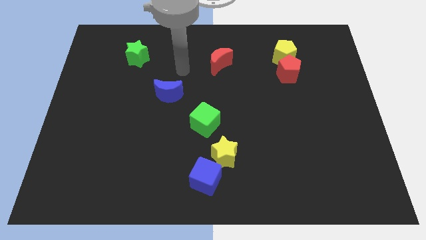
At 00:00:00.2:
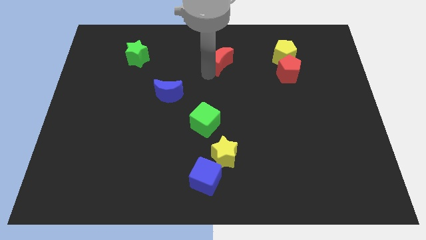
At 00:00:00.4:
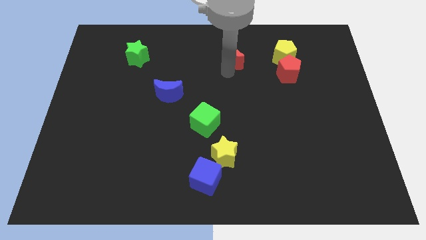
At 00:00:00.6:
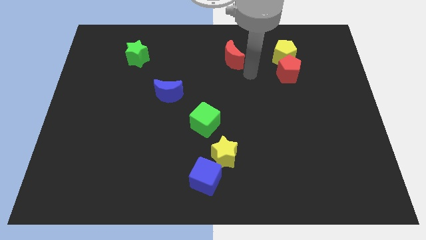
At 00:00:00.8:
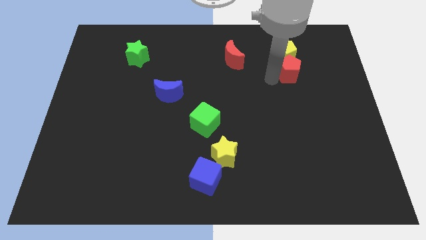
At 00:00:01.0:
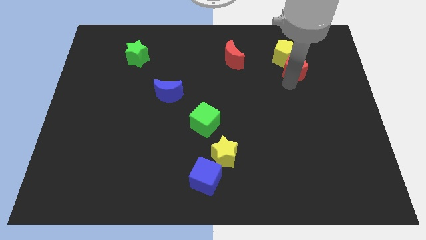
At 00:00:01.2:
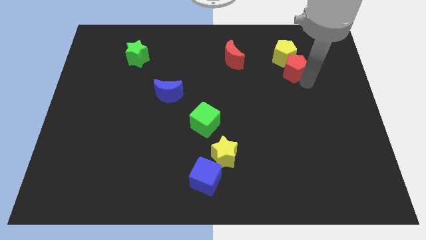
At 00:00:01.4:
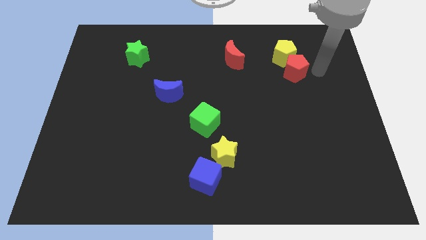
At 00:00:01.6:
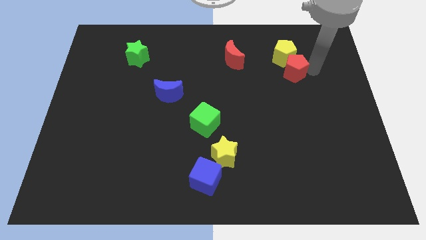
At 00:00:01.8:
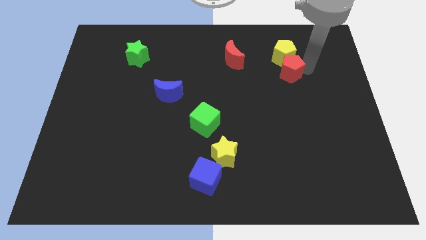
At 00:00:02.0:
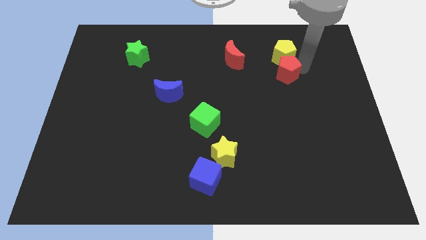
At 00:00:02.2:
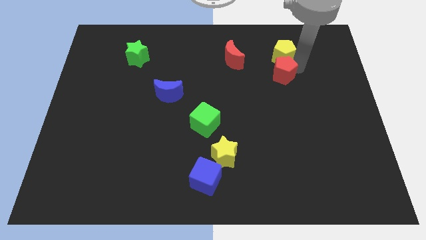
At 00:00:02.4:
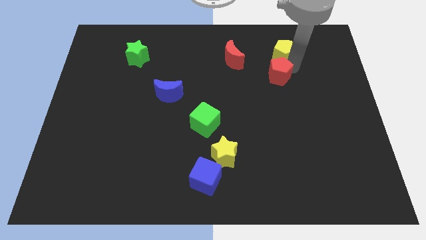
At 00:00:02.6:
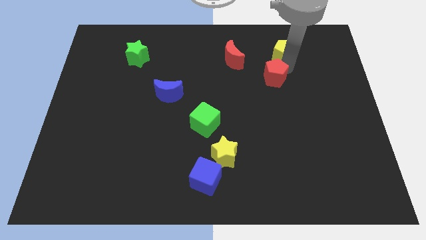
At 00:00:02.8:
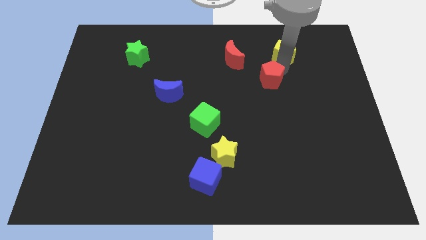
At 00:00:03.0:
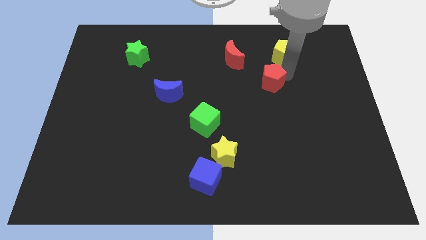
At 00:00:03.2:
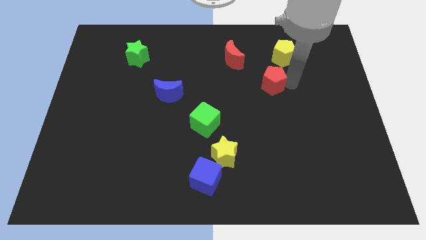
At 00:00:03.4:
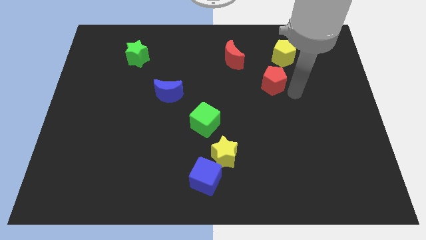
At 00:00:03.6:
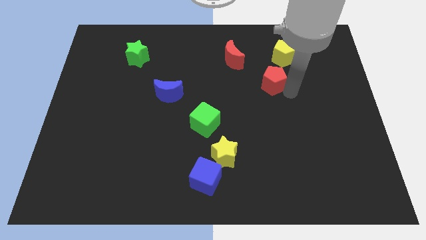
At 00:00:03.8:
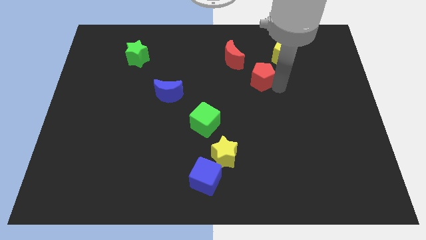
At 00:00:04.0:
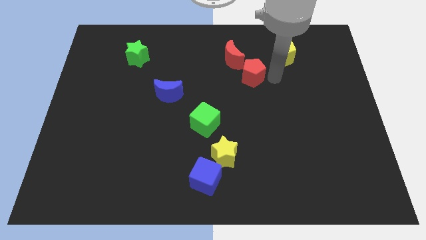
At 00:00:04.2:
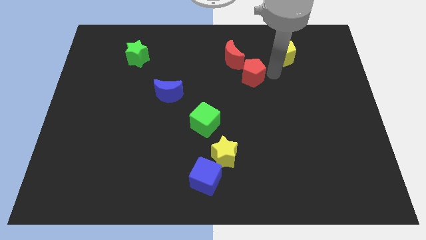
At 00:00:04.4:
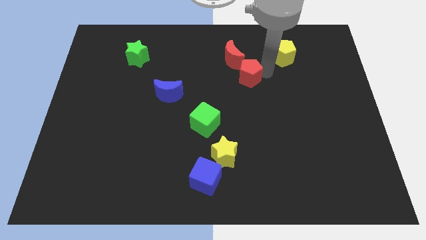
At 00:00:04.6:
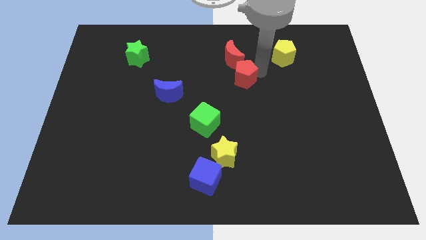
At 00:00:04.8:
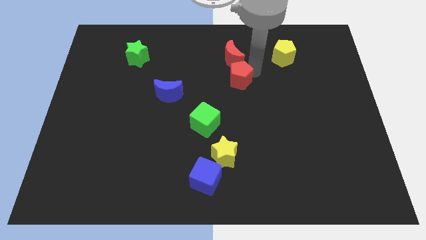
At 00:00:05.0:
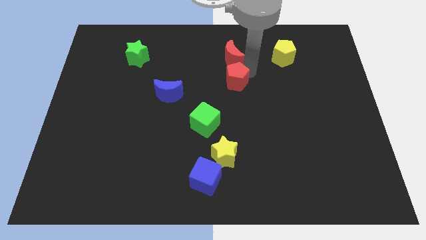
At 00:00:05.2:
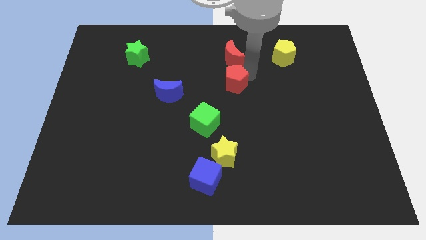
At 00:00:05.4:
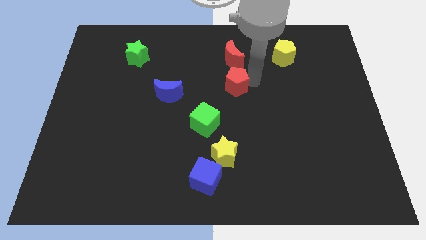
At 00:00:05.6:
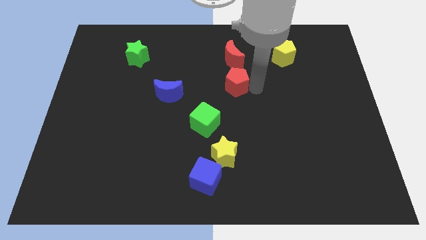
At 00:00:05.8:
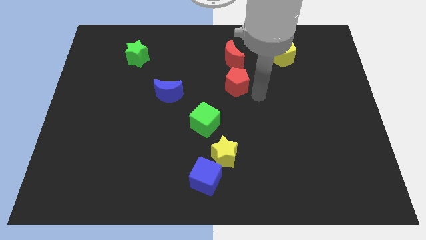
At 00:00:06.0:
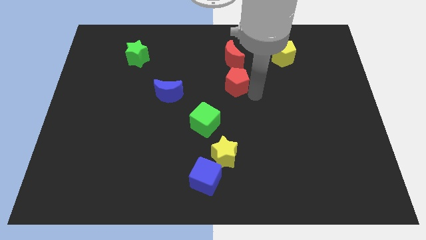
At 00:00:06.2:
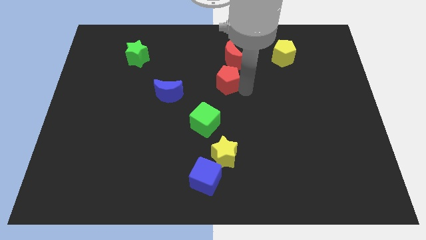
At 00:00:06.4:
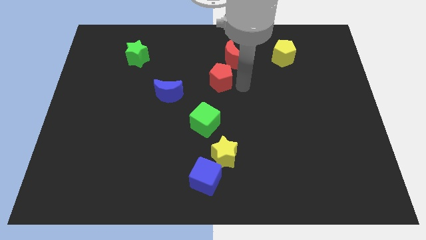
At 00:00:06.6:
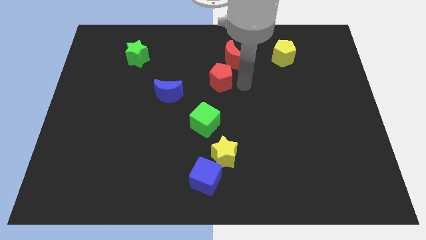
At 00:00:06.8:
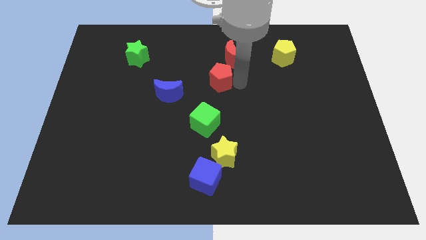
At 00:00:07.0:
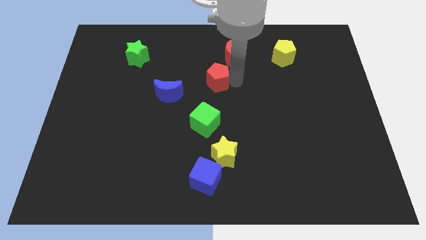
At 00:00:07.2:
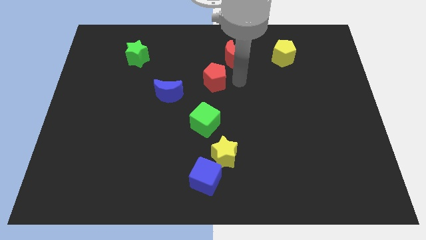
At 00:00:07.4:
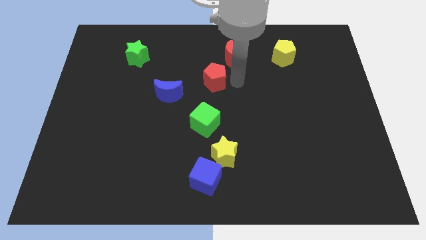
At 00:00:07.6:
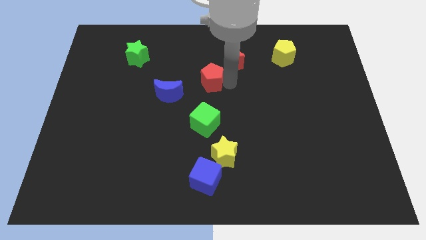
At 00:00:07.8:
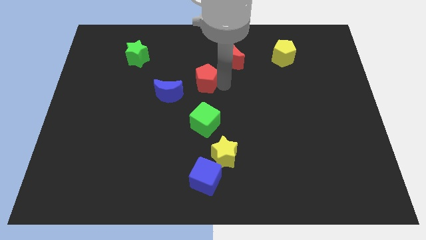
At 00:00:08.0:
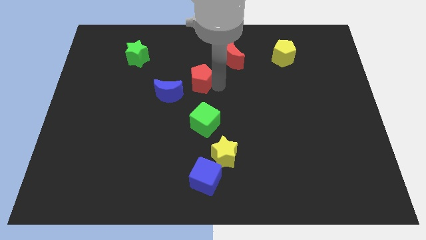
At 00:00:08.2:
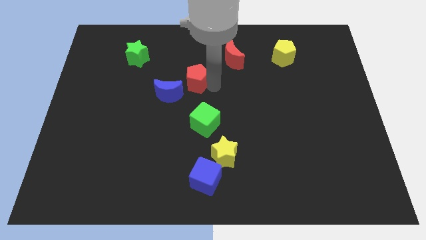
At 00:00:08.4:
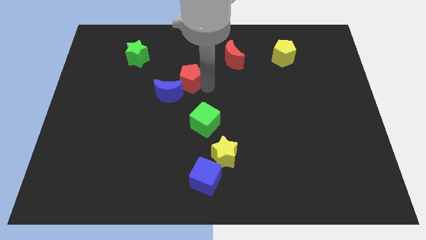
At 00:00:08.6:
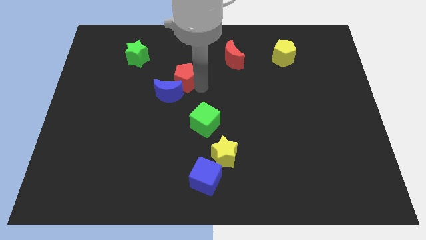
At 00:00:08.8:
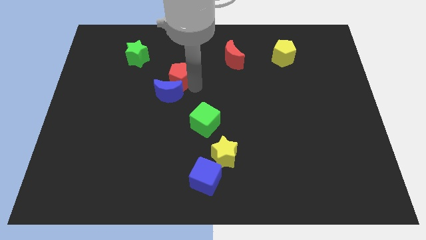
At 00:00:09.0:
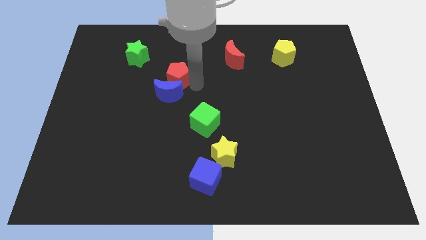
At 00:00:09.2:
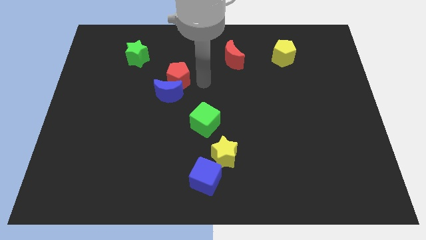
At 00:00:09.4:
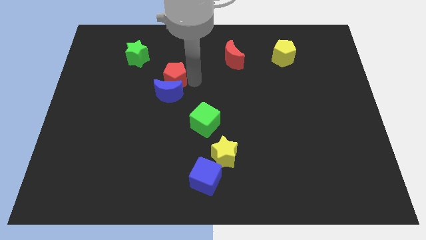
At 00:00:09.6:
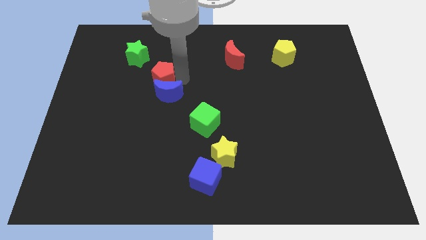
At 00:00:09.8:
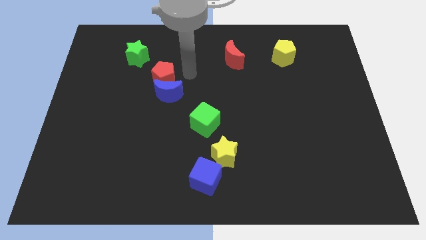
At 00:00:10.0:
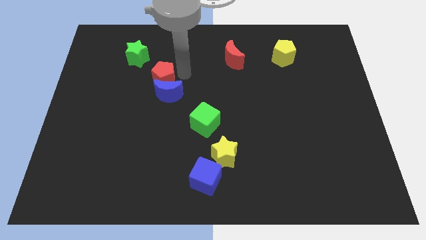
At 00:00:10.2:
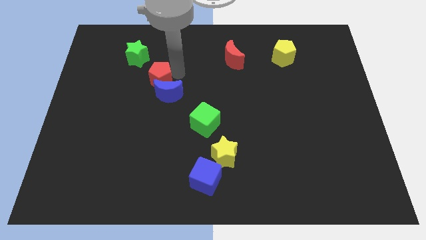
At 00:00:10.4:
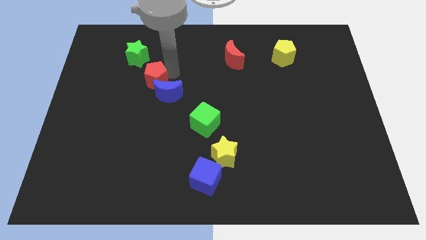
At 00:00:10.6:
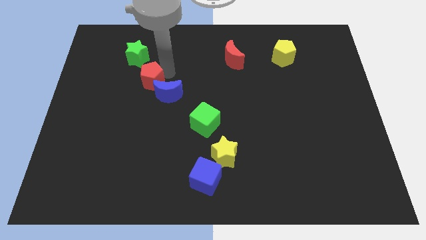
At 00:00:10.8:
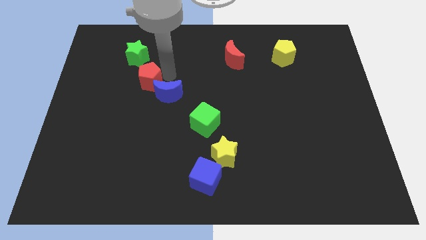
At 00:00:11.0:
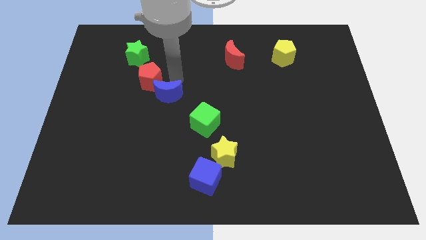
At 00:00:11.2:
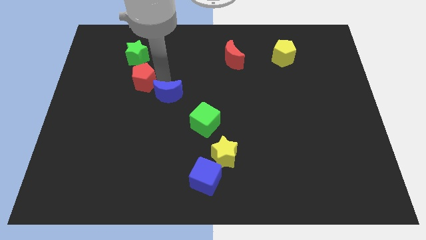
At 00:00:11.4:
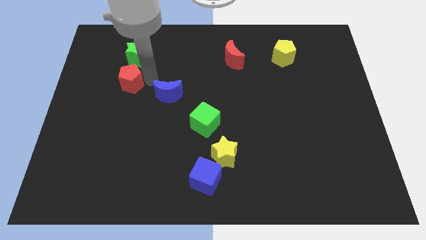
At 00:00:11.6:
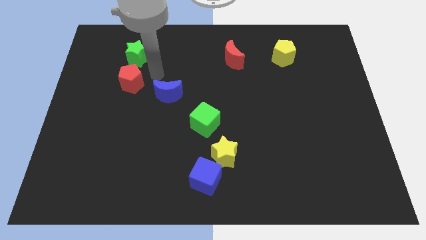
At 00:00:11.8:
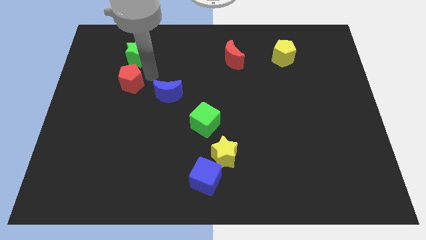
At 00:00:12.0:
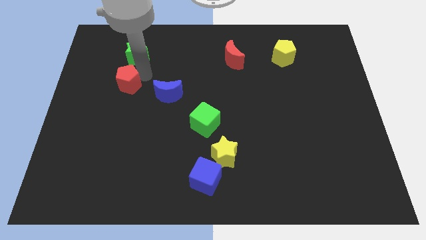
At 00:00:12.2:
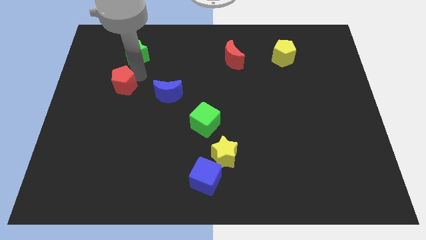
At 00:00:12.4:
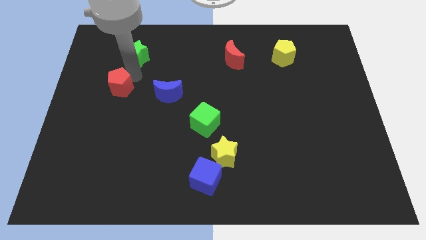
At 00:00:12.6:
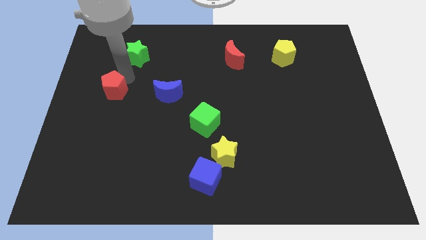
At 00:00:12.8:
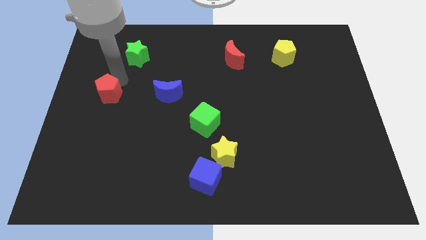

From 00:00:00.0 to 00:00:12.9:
slide the red pentagon to the left side
